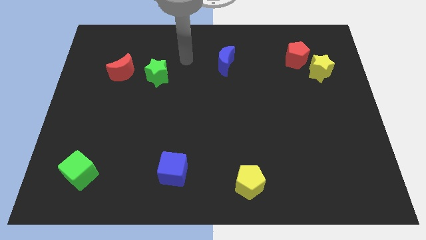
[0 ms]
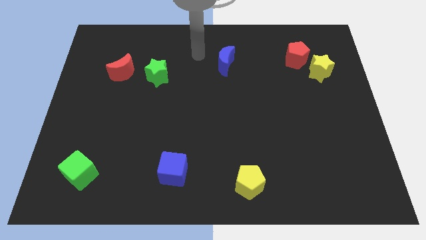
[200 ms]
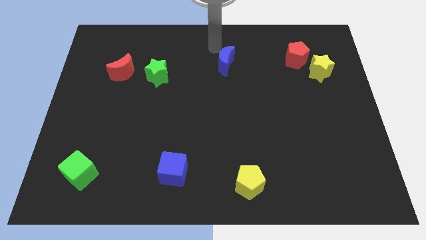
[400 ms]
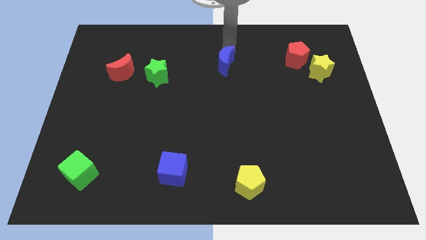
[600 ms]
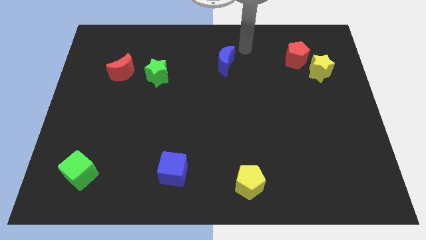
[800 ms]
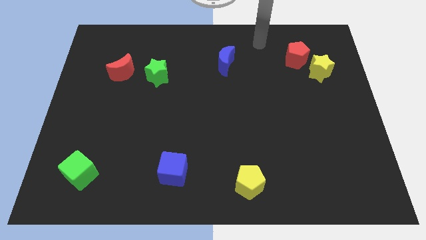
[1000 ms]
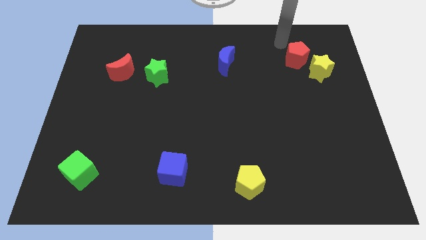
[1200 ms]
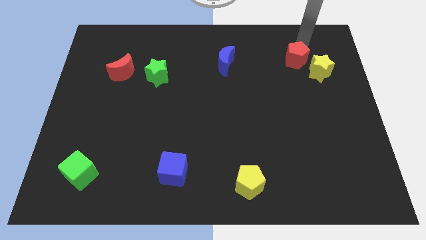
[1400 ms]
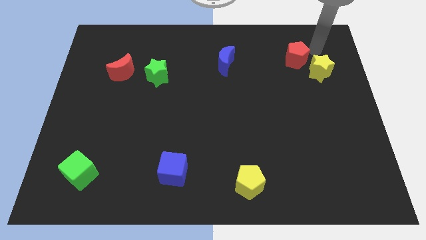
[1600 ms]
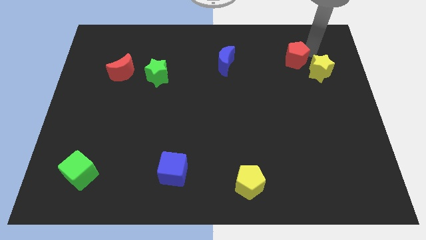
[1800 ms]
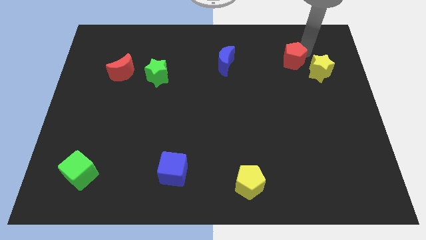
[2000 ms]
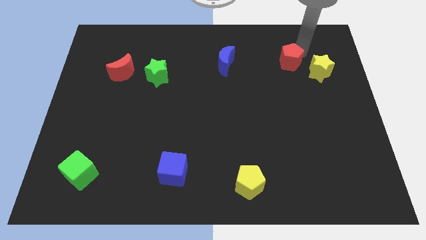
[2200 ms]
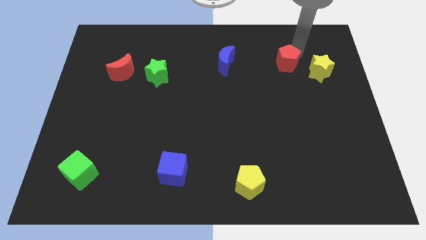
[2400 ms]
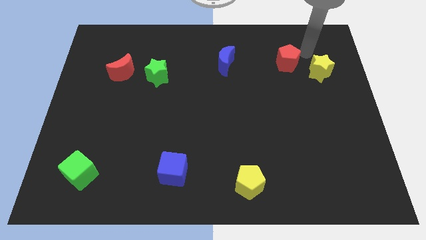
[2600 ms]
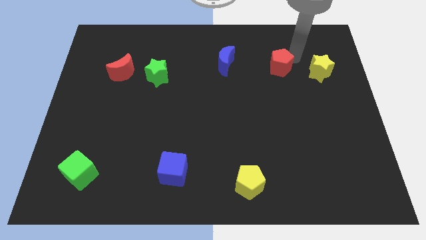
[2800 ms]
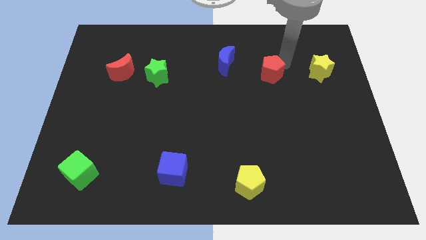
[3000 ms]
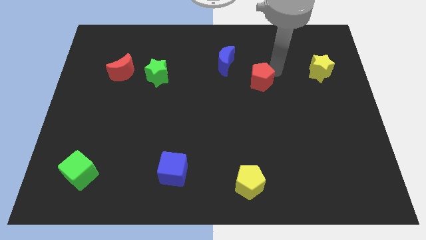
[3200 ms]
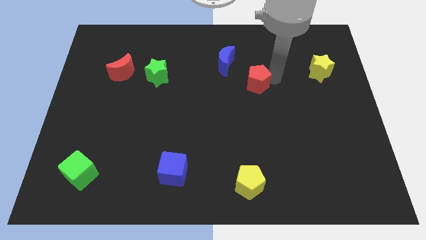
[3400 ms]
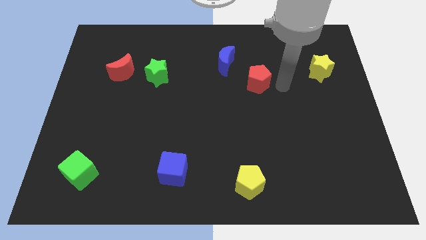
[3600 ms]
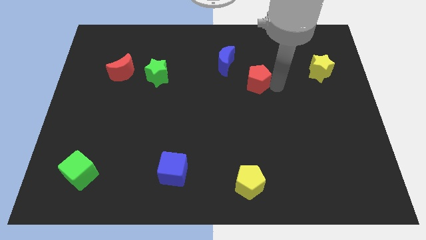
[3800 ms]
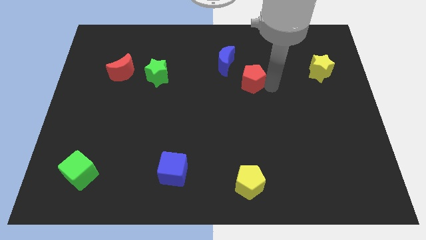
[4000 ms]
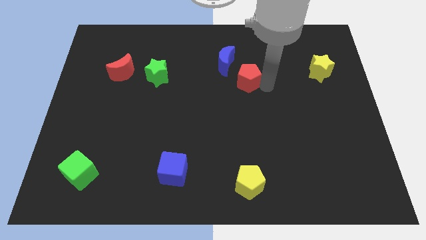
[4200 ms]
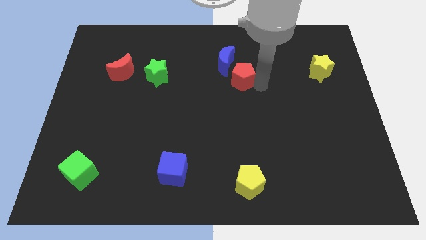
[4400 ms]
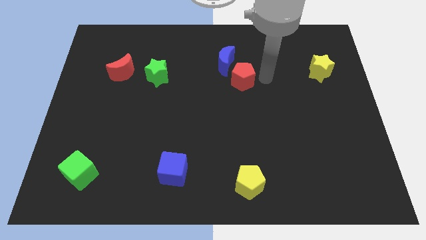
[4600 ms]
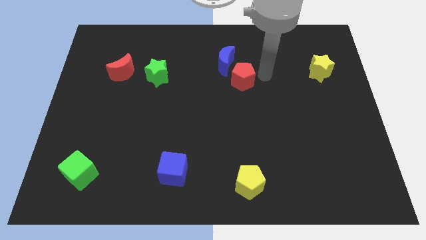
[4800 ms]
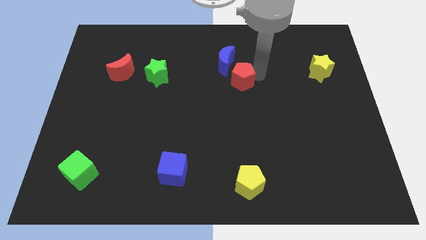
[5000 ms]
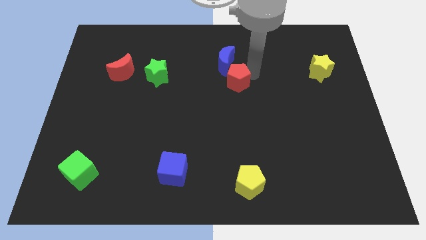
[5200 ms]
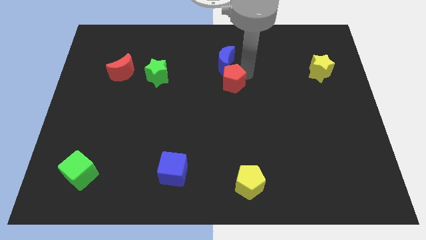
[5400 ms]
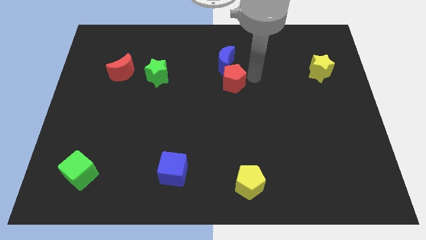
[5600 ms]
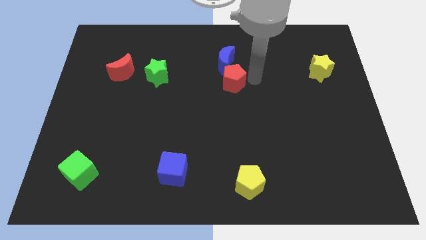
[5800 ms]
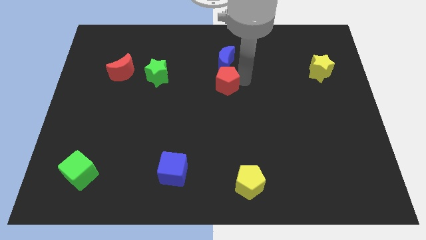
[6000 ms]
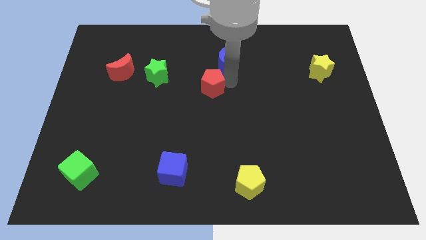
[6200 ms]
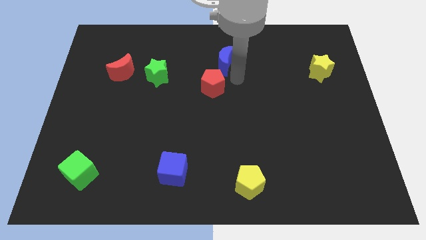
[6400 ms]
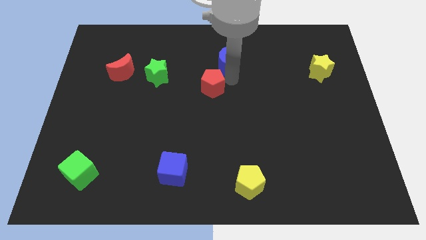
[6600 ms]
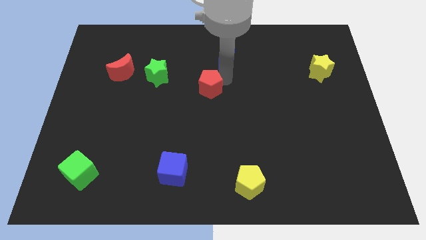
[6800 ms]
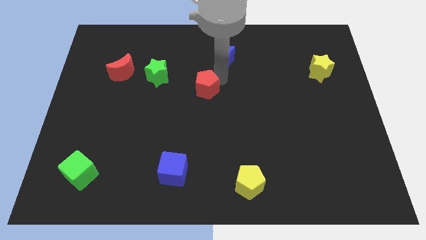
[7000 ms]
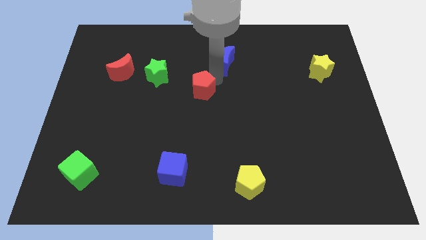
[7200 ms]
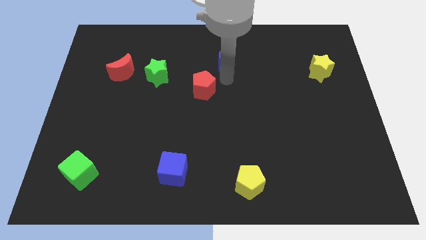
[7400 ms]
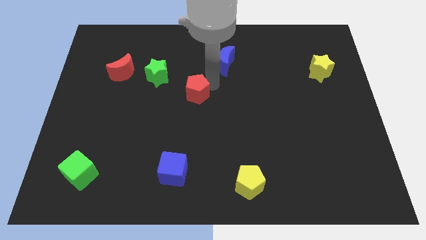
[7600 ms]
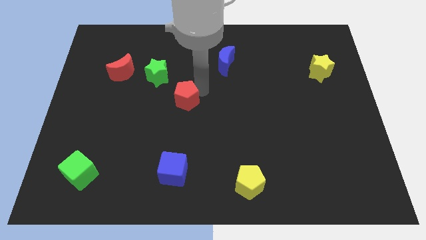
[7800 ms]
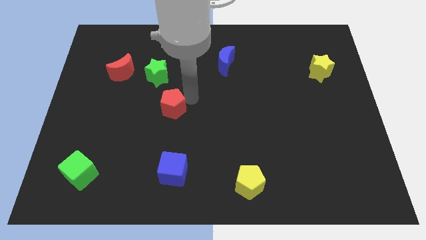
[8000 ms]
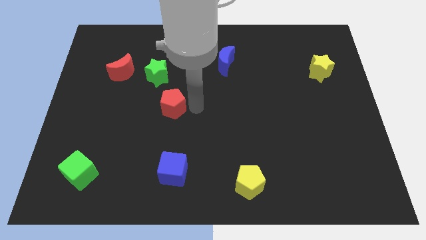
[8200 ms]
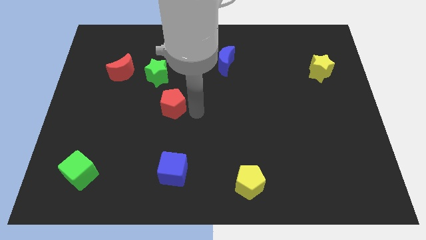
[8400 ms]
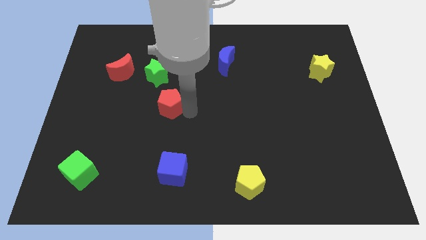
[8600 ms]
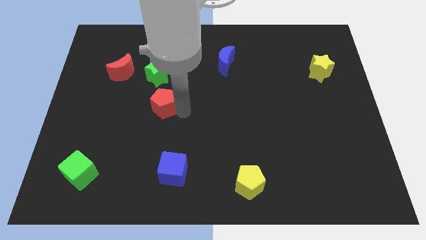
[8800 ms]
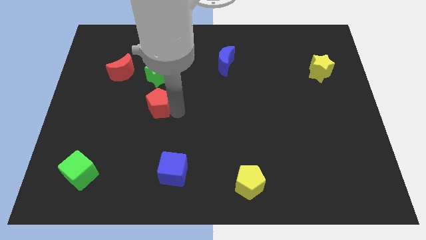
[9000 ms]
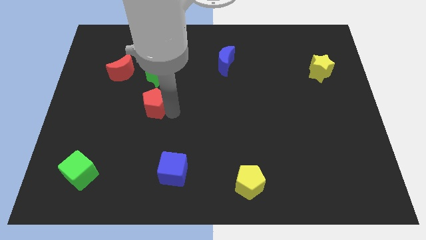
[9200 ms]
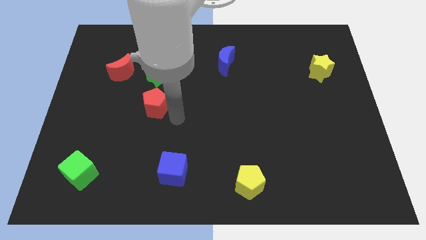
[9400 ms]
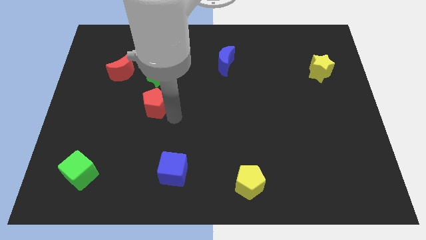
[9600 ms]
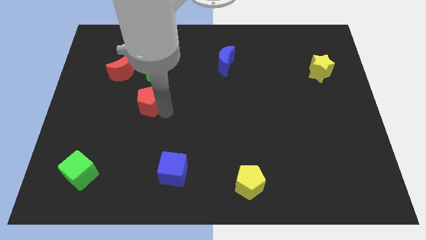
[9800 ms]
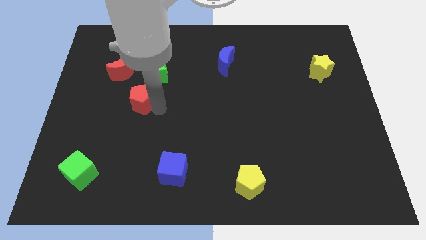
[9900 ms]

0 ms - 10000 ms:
push the red pentagon to the bottom left side of the green star

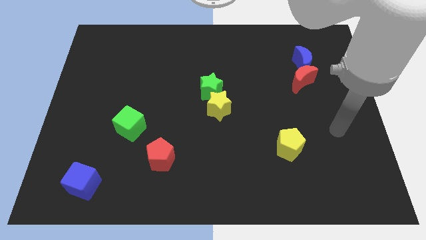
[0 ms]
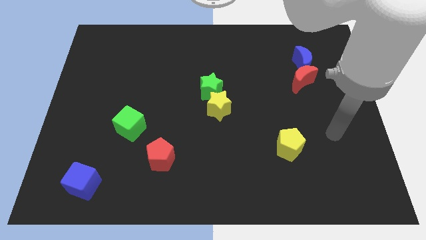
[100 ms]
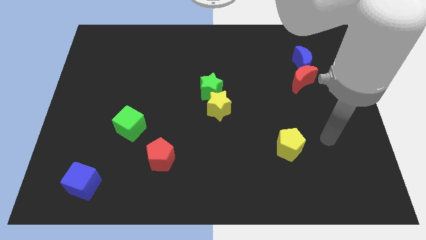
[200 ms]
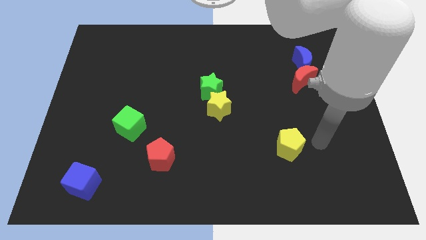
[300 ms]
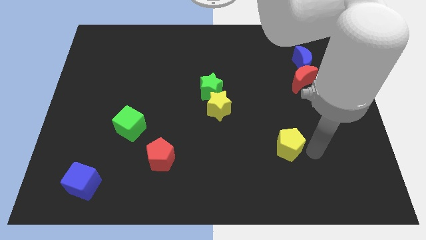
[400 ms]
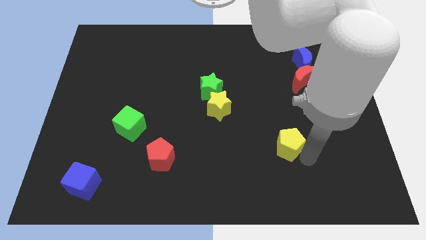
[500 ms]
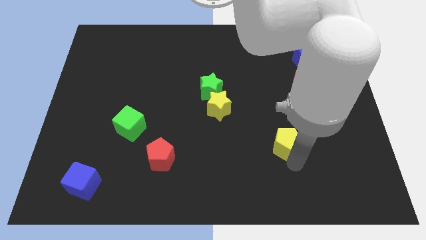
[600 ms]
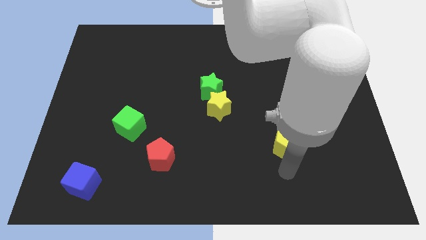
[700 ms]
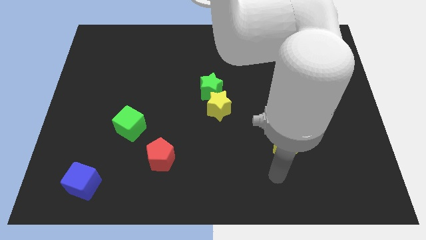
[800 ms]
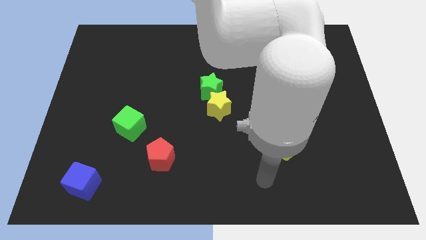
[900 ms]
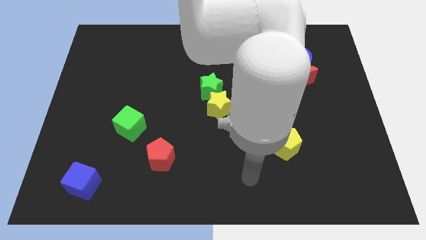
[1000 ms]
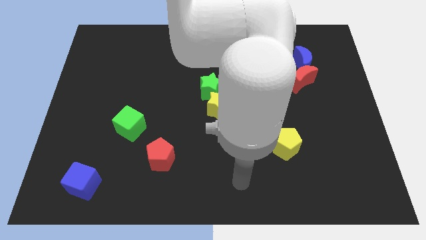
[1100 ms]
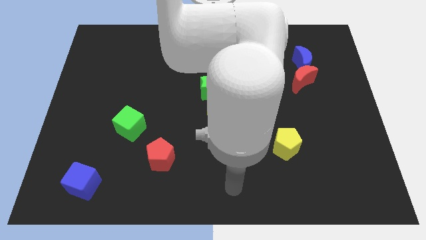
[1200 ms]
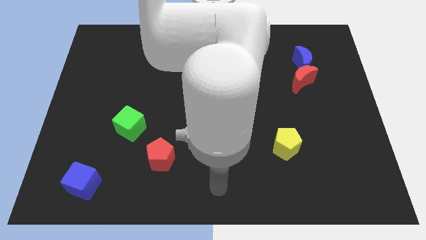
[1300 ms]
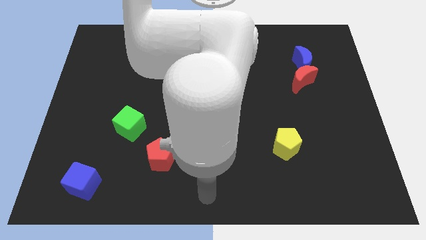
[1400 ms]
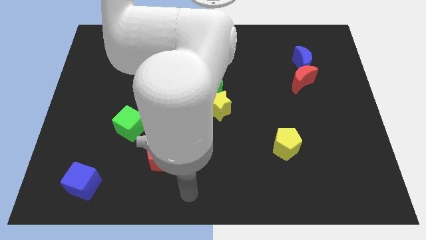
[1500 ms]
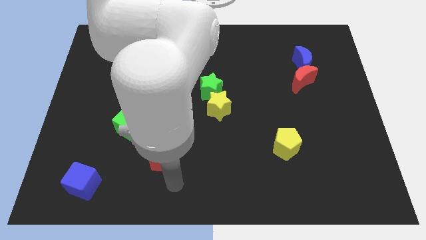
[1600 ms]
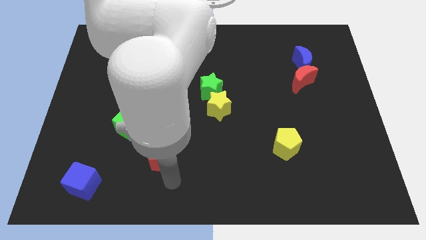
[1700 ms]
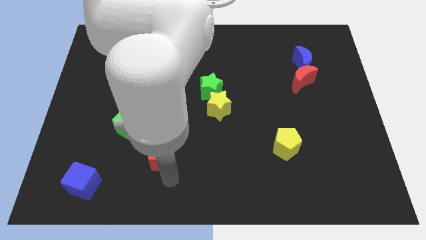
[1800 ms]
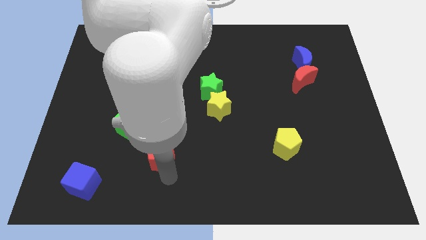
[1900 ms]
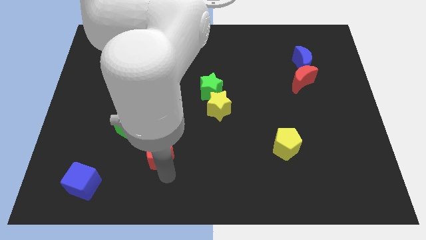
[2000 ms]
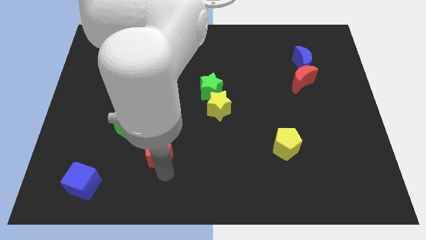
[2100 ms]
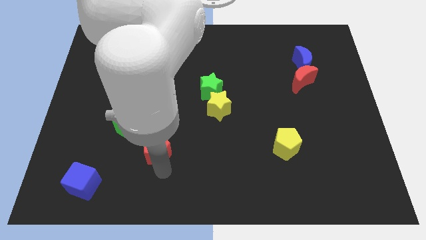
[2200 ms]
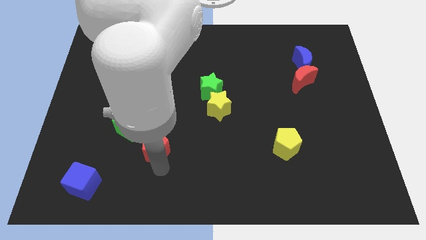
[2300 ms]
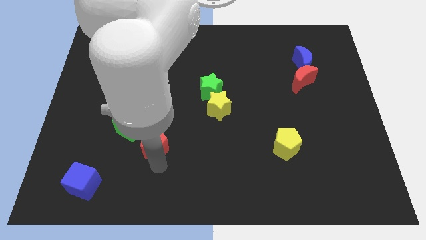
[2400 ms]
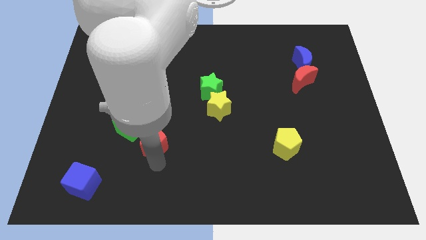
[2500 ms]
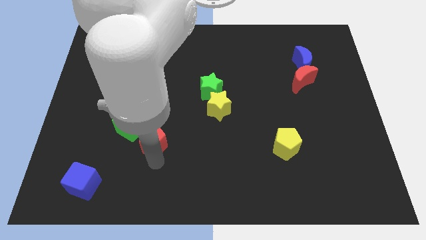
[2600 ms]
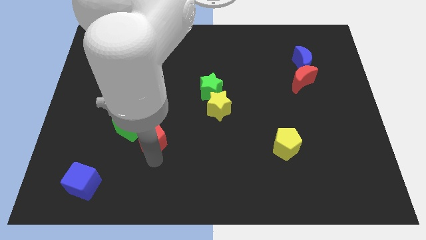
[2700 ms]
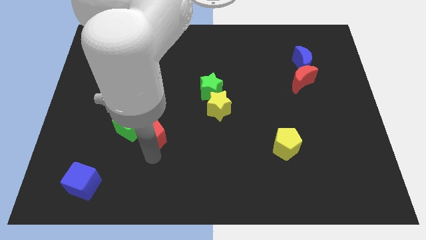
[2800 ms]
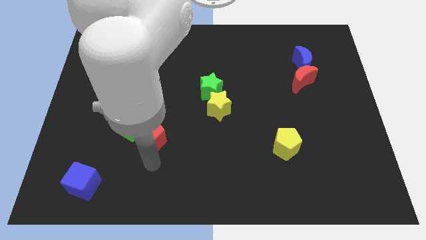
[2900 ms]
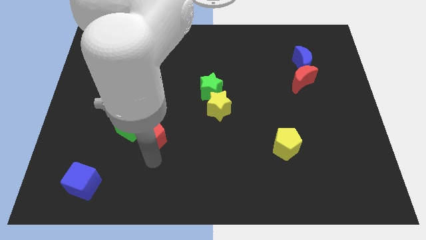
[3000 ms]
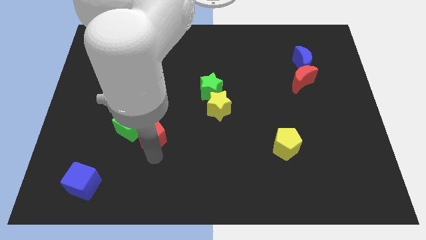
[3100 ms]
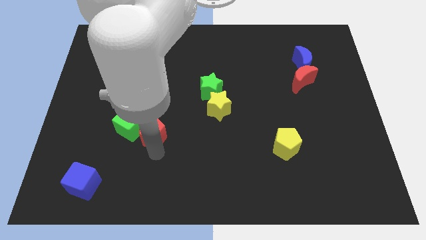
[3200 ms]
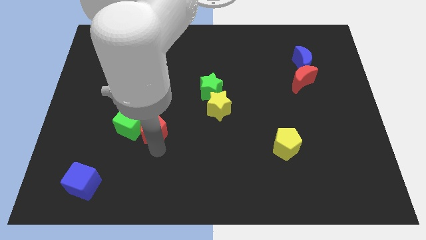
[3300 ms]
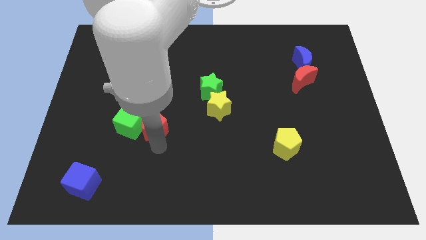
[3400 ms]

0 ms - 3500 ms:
put the red pentagon diagonally up and to the right of the green cube
